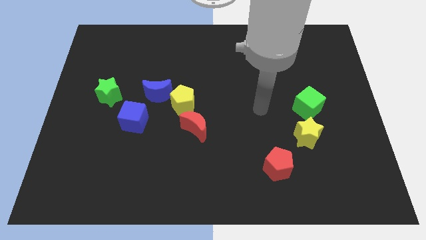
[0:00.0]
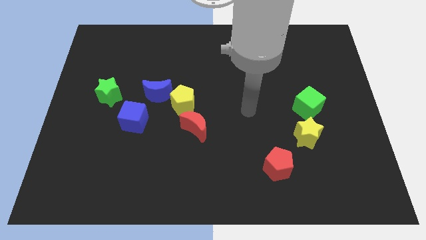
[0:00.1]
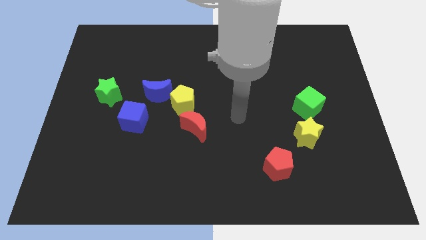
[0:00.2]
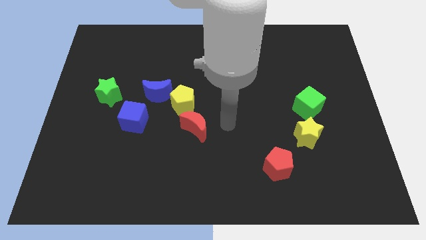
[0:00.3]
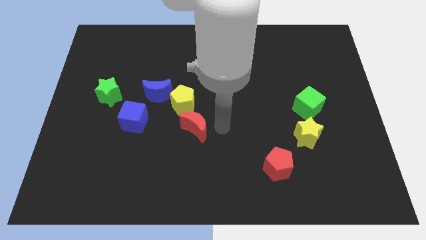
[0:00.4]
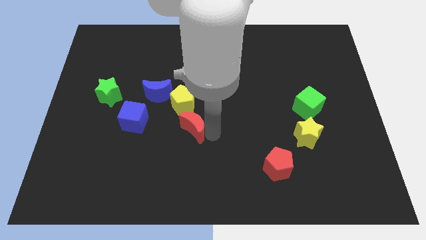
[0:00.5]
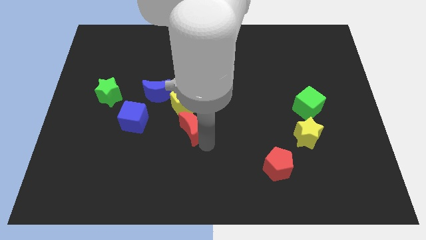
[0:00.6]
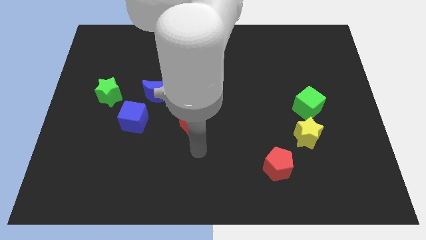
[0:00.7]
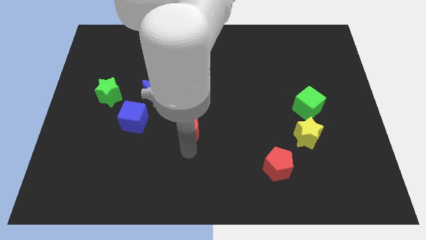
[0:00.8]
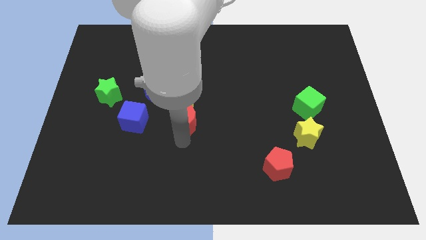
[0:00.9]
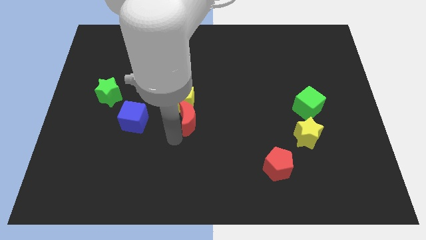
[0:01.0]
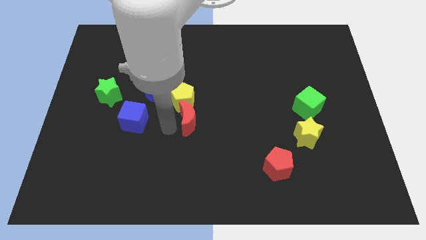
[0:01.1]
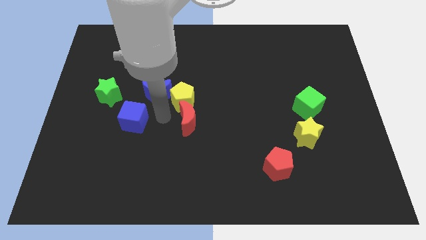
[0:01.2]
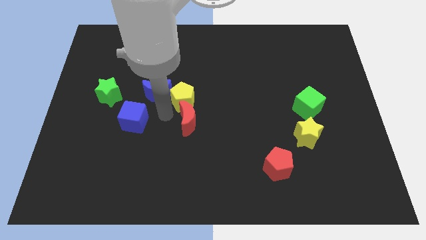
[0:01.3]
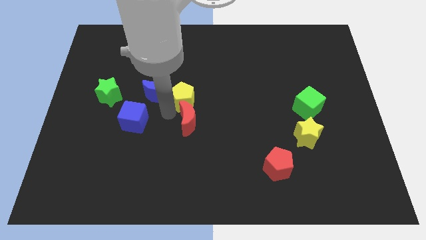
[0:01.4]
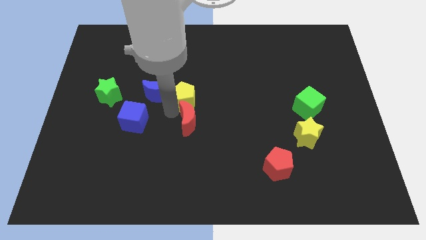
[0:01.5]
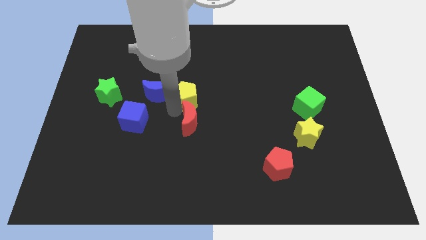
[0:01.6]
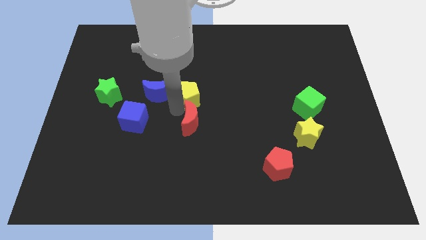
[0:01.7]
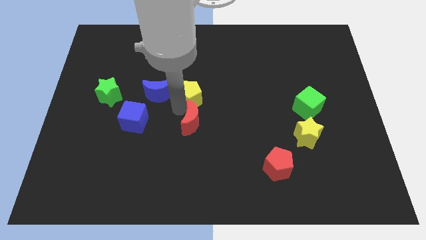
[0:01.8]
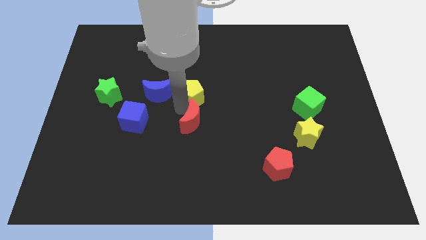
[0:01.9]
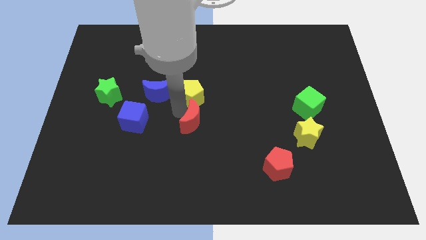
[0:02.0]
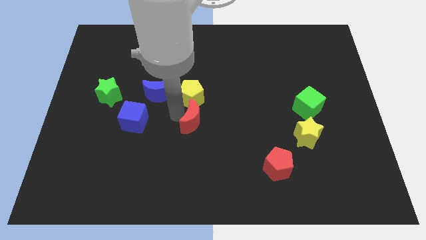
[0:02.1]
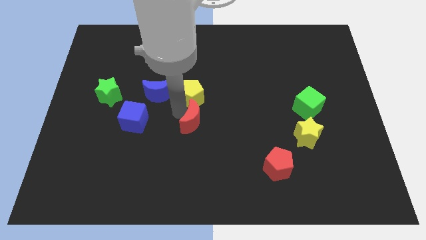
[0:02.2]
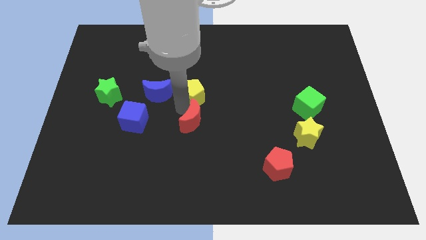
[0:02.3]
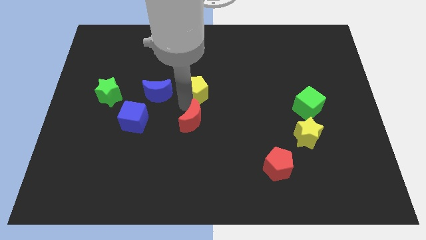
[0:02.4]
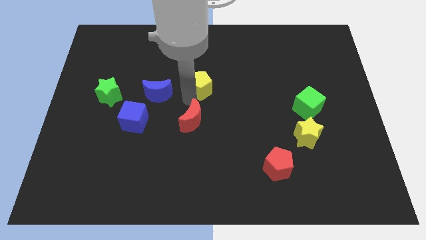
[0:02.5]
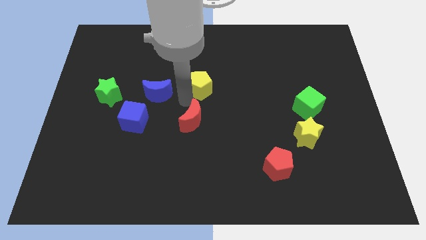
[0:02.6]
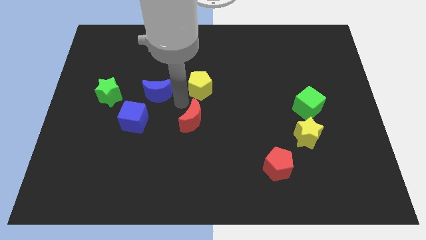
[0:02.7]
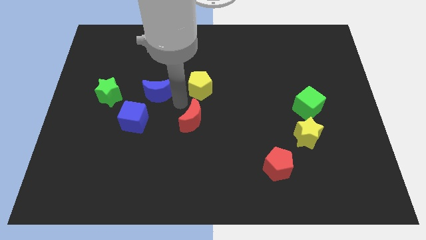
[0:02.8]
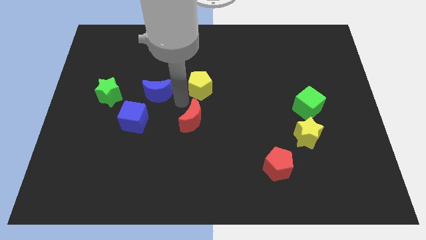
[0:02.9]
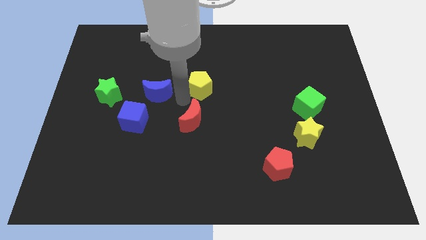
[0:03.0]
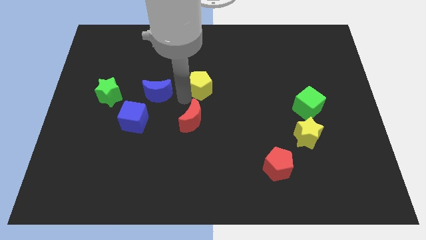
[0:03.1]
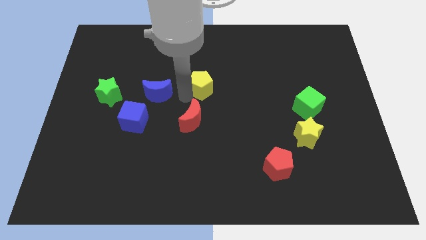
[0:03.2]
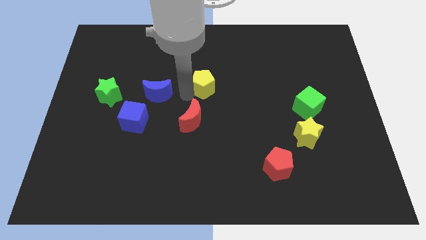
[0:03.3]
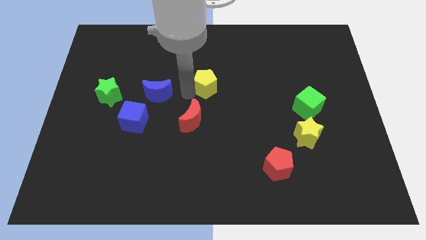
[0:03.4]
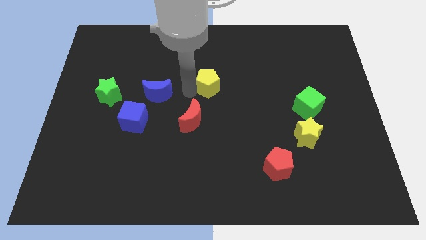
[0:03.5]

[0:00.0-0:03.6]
pull the yellow pentagon apart from the blue moon and red moon

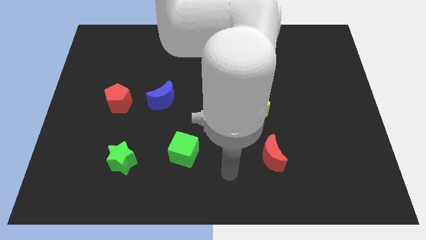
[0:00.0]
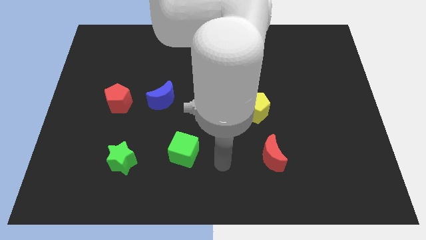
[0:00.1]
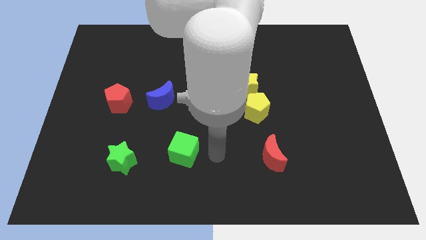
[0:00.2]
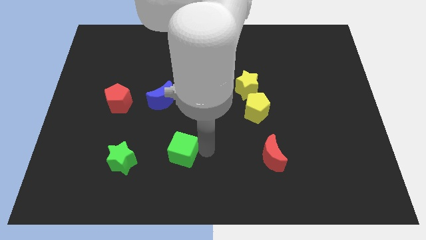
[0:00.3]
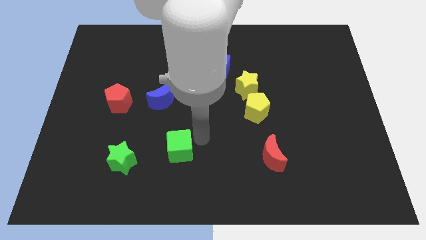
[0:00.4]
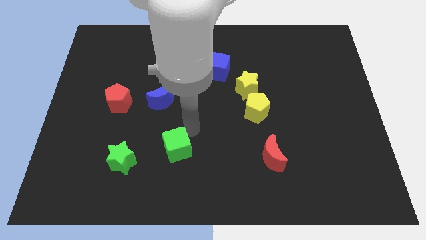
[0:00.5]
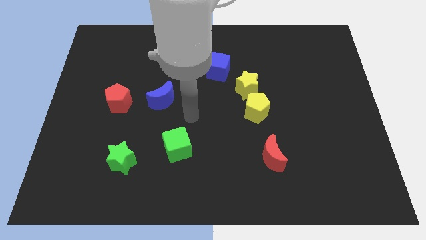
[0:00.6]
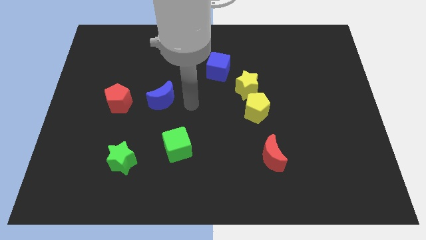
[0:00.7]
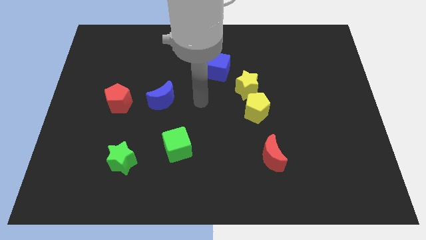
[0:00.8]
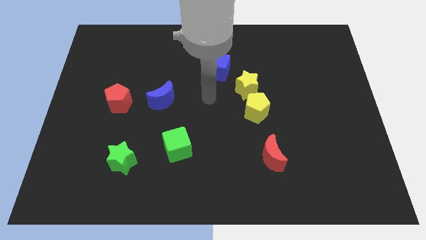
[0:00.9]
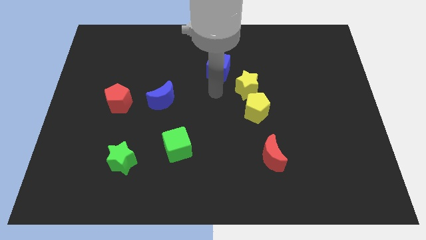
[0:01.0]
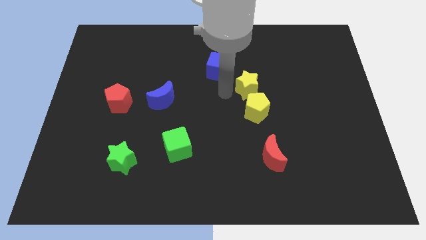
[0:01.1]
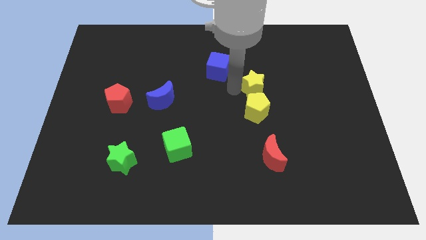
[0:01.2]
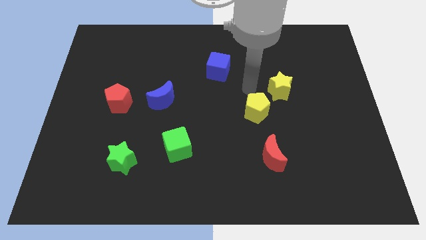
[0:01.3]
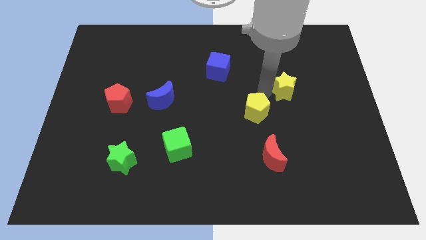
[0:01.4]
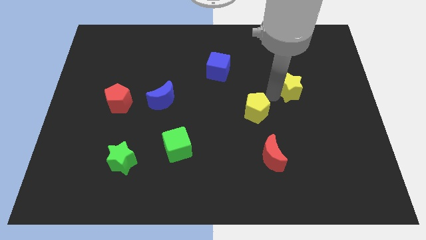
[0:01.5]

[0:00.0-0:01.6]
separate the yellow pentagon from the yellow star

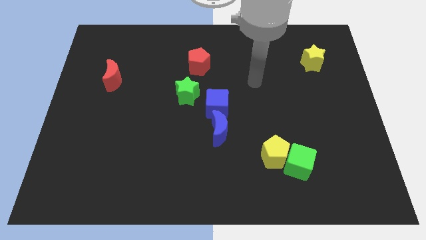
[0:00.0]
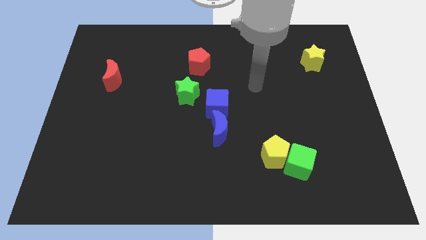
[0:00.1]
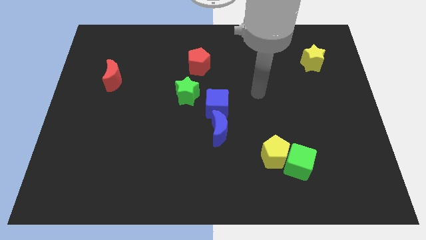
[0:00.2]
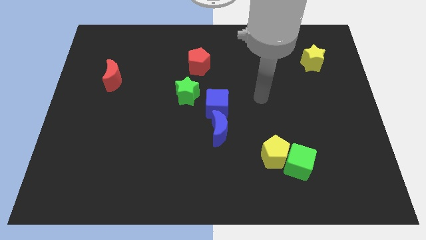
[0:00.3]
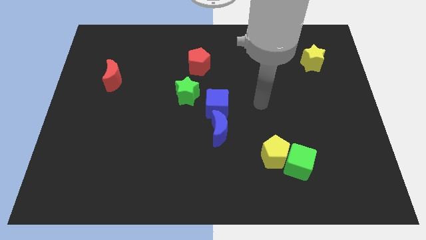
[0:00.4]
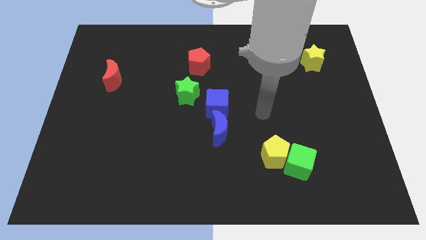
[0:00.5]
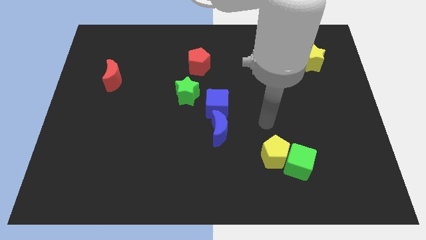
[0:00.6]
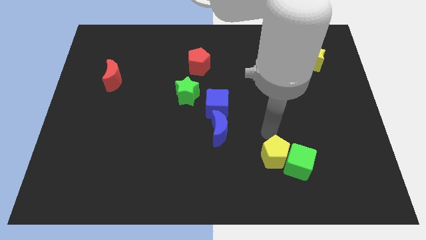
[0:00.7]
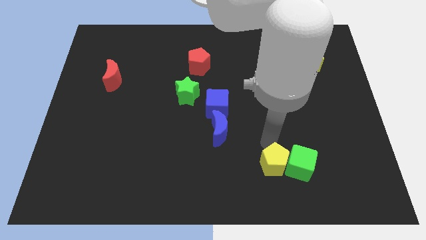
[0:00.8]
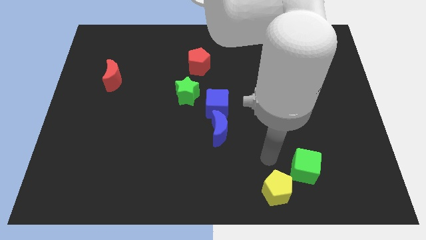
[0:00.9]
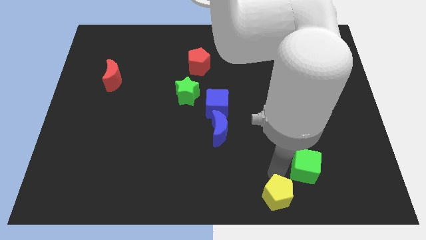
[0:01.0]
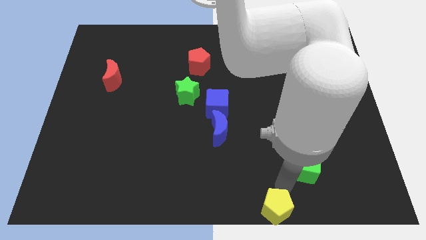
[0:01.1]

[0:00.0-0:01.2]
move the green cube away from the yellow pentagon

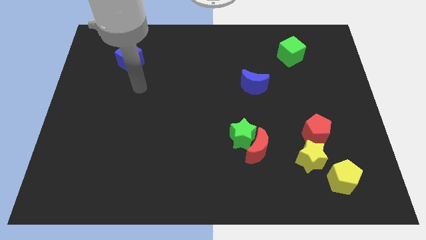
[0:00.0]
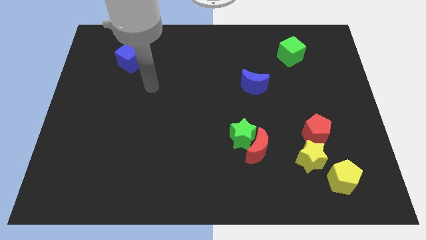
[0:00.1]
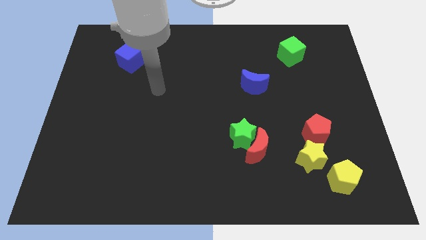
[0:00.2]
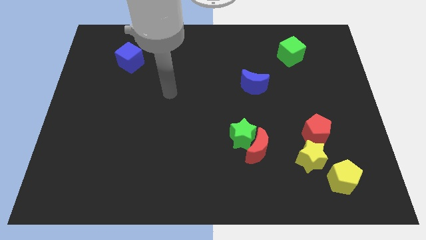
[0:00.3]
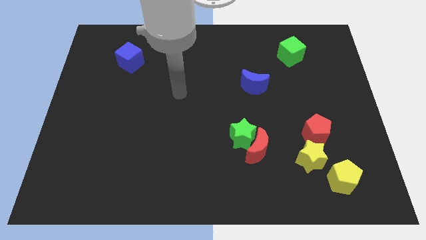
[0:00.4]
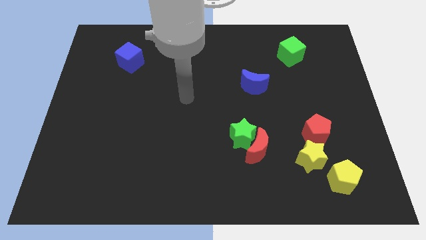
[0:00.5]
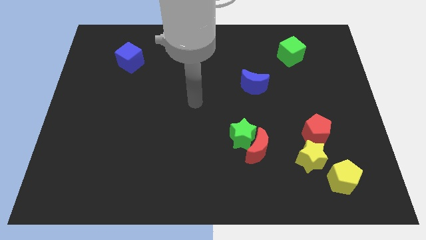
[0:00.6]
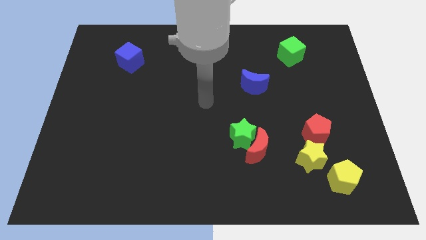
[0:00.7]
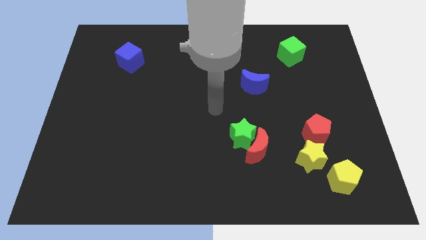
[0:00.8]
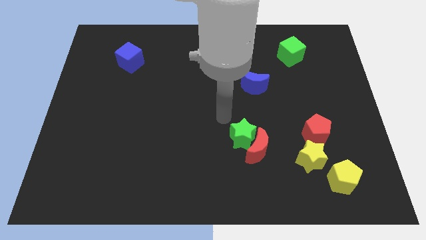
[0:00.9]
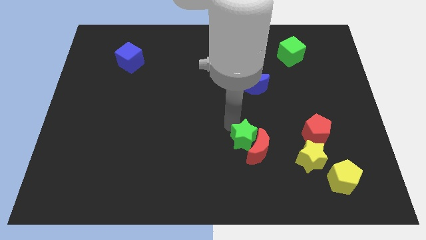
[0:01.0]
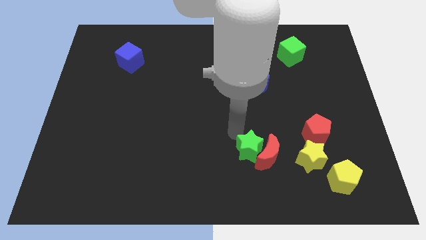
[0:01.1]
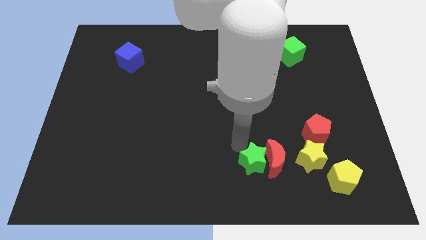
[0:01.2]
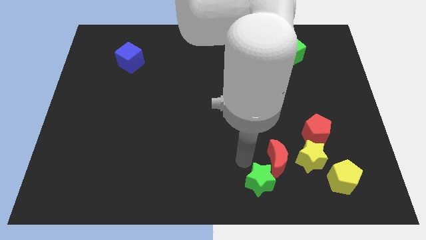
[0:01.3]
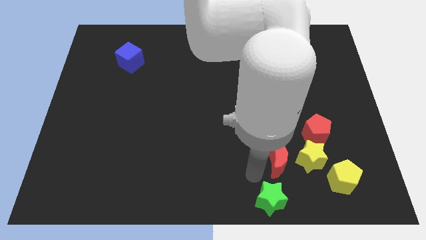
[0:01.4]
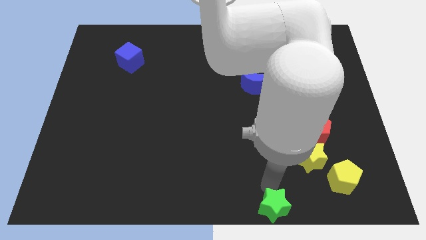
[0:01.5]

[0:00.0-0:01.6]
move the red moon away from the green star

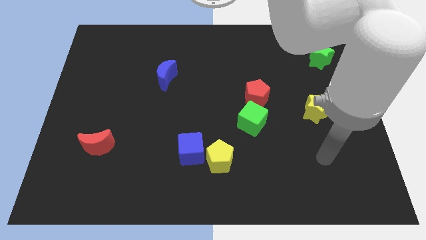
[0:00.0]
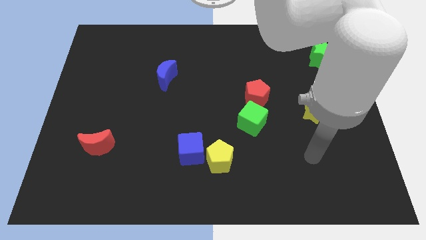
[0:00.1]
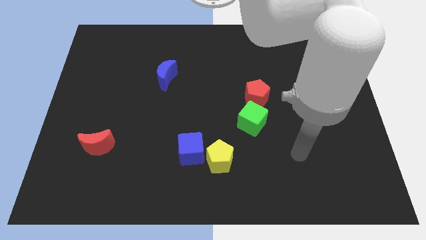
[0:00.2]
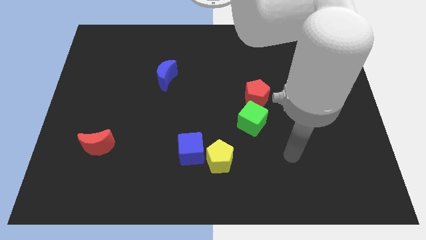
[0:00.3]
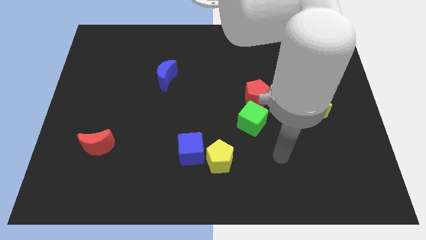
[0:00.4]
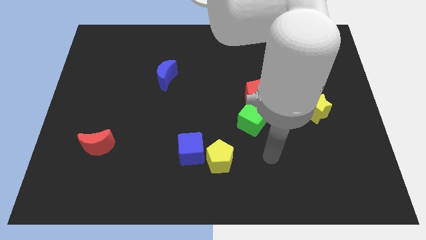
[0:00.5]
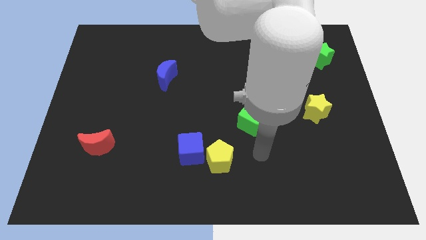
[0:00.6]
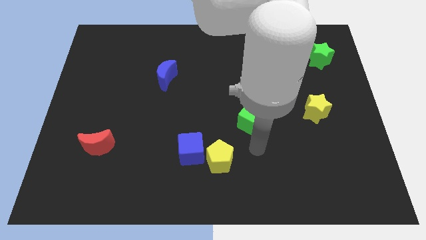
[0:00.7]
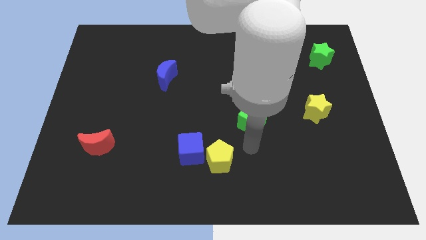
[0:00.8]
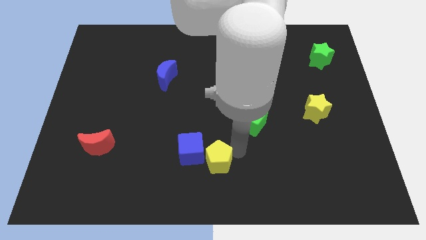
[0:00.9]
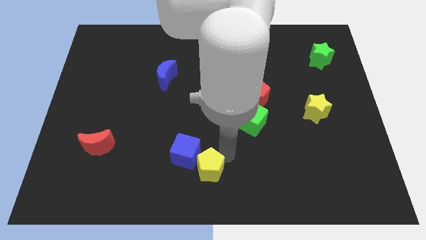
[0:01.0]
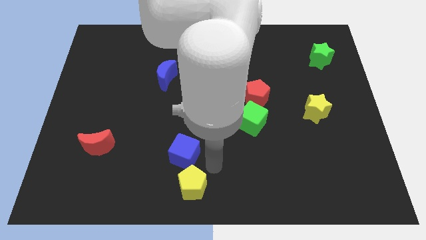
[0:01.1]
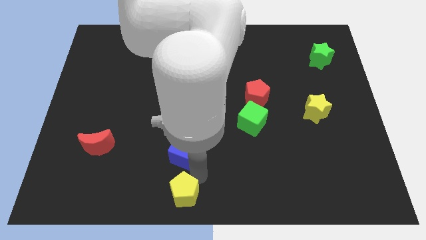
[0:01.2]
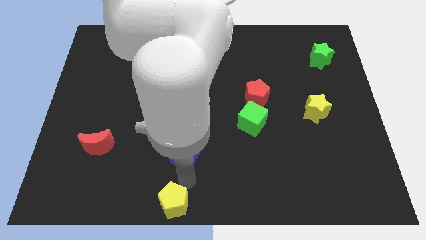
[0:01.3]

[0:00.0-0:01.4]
move the blue cube away from the yellow pentagon
